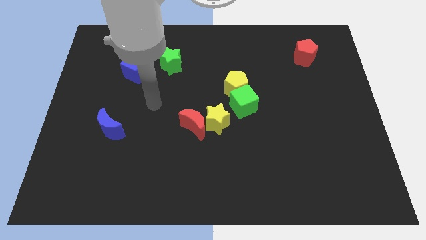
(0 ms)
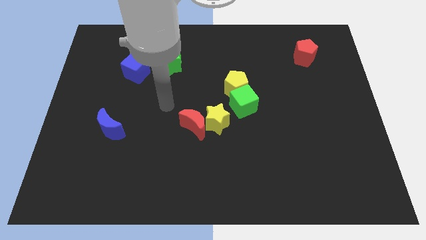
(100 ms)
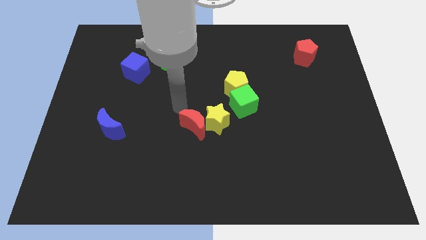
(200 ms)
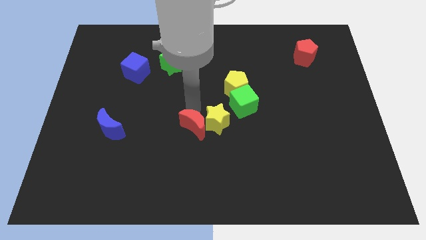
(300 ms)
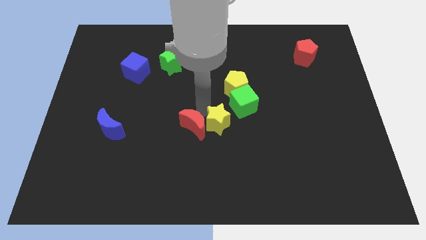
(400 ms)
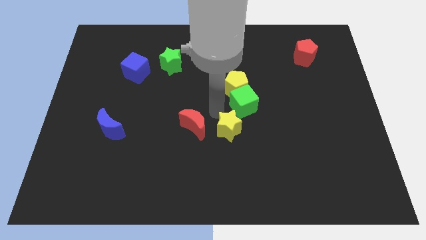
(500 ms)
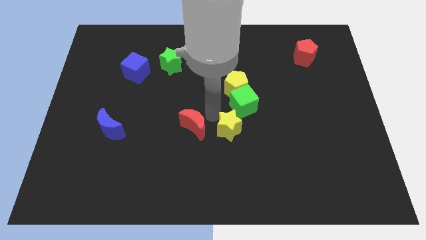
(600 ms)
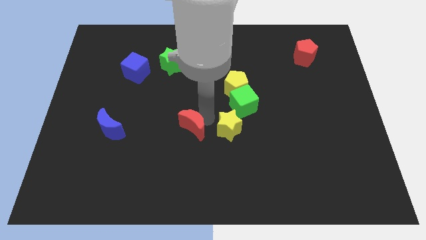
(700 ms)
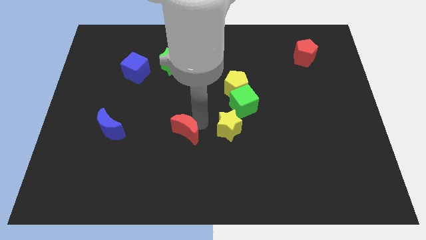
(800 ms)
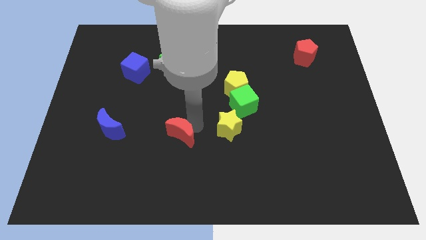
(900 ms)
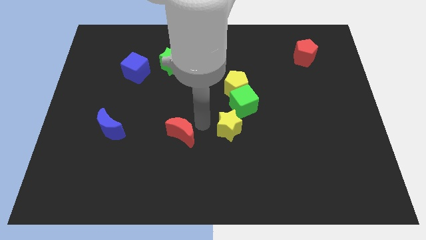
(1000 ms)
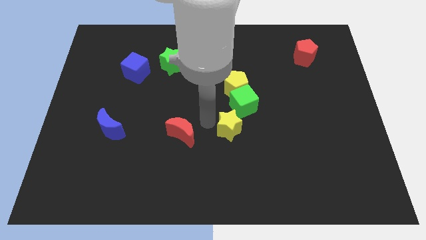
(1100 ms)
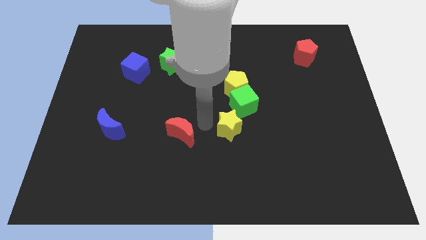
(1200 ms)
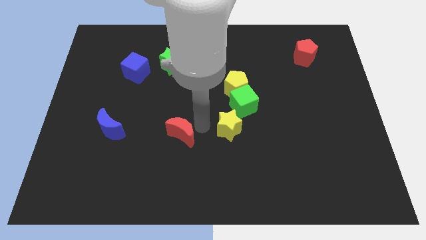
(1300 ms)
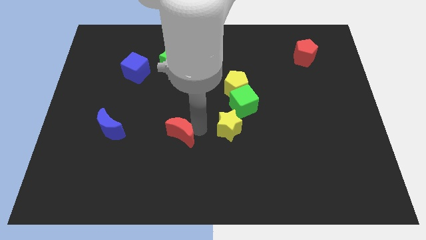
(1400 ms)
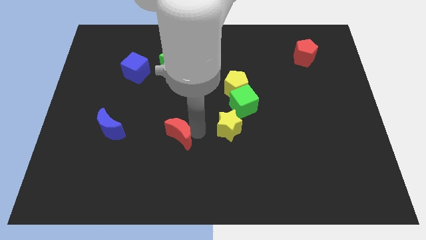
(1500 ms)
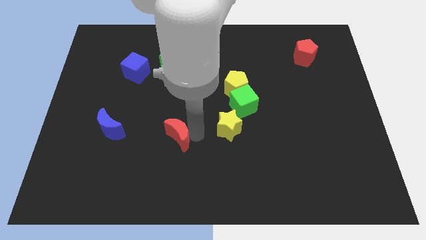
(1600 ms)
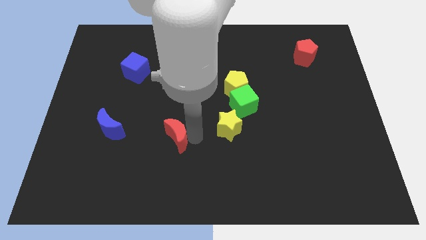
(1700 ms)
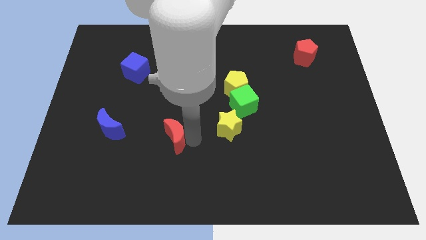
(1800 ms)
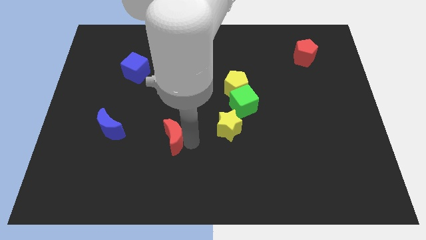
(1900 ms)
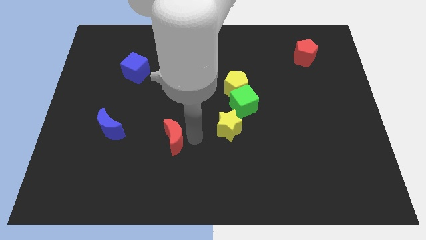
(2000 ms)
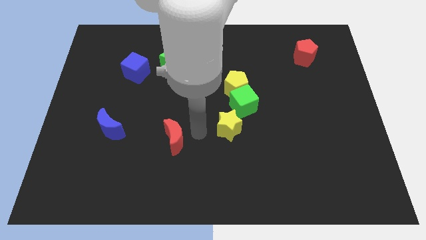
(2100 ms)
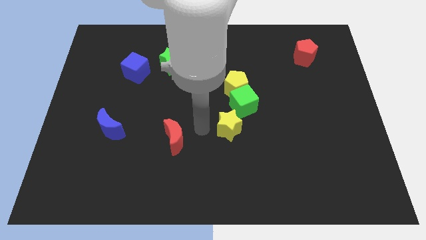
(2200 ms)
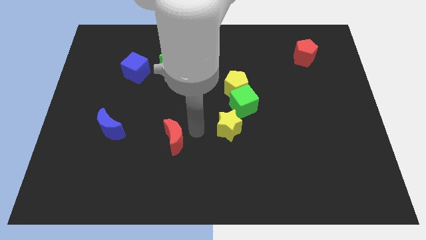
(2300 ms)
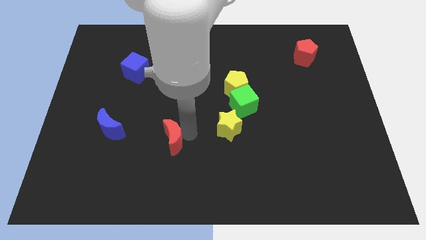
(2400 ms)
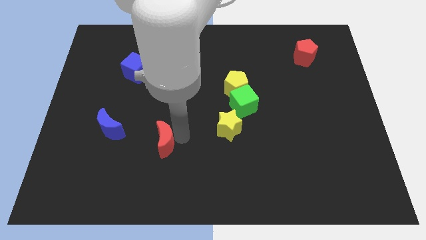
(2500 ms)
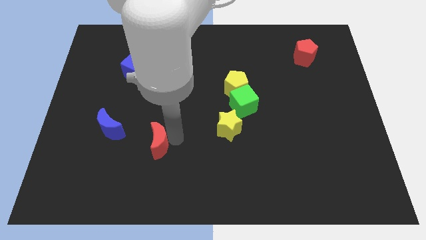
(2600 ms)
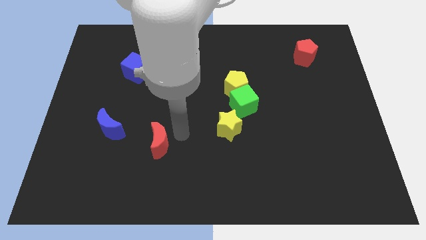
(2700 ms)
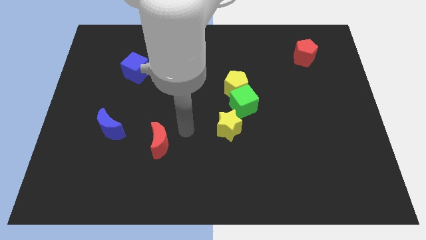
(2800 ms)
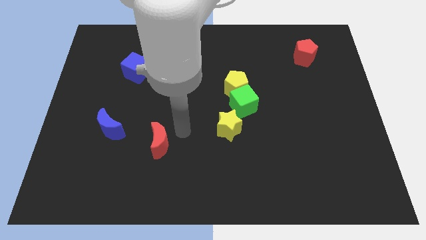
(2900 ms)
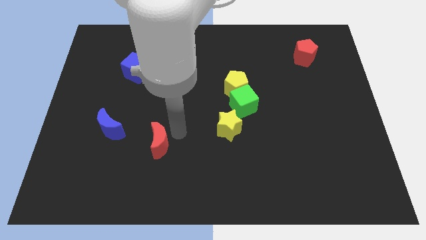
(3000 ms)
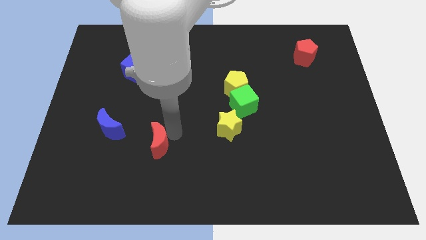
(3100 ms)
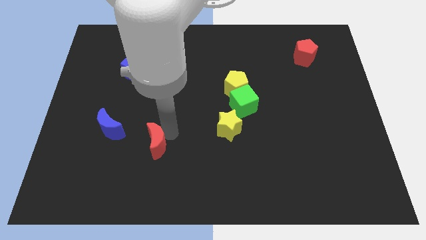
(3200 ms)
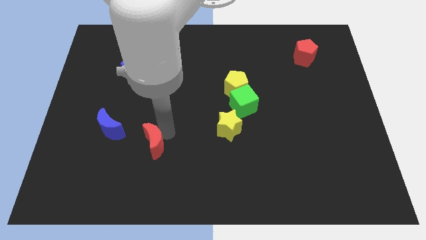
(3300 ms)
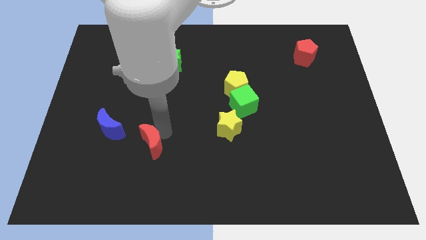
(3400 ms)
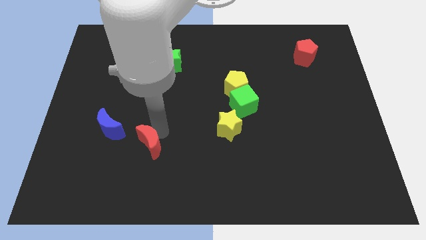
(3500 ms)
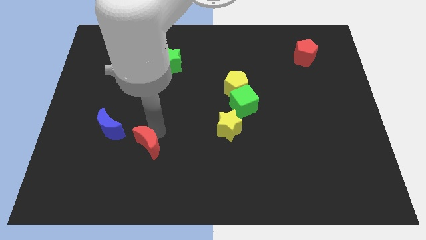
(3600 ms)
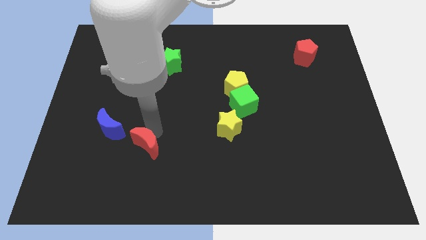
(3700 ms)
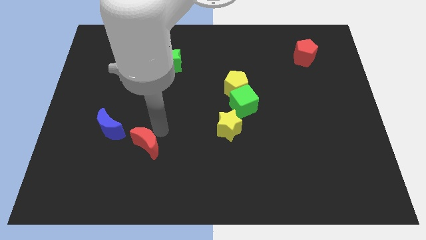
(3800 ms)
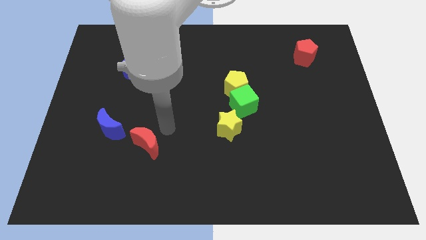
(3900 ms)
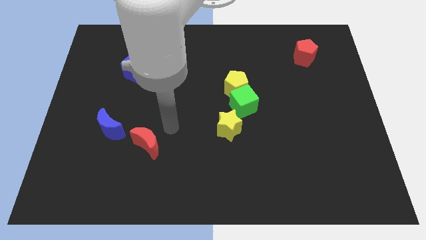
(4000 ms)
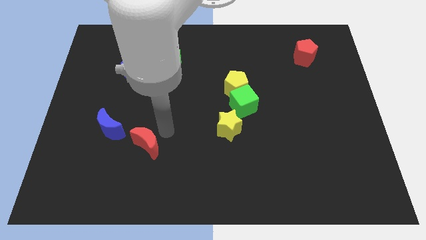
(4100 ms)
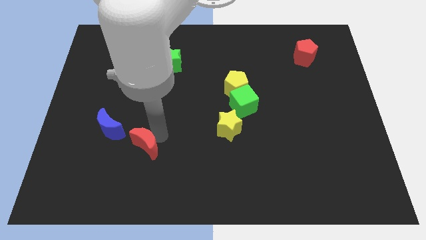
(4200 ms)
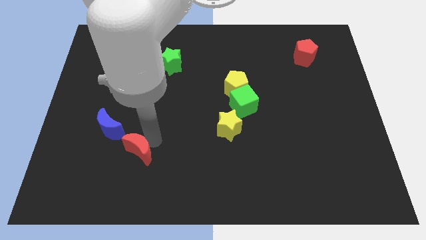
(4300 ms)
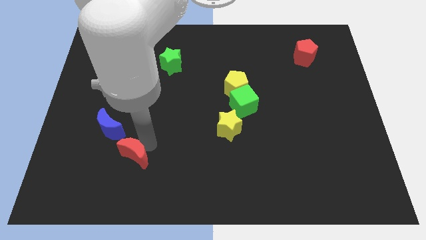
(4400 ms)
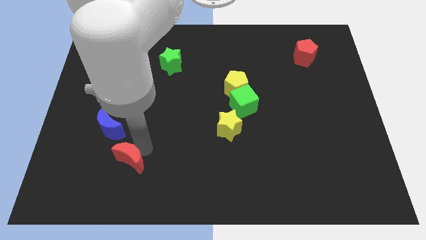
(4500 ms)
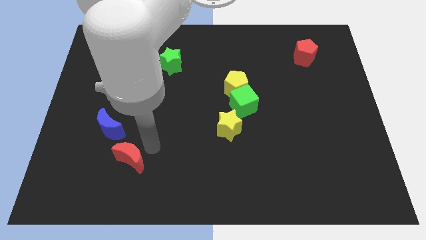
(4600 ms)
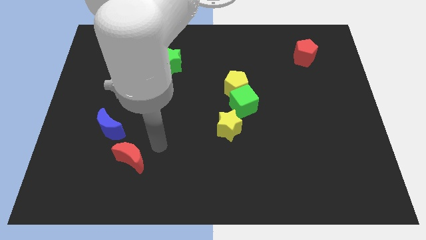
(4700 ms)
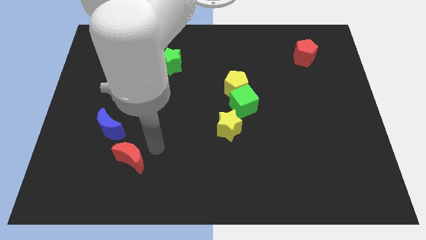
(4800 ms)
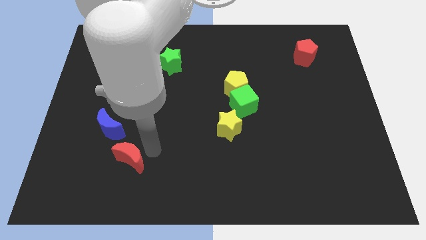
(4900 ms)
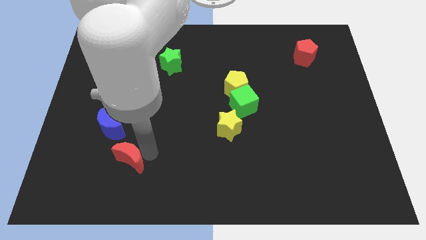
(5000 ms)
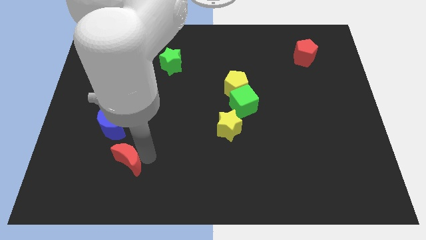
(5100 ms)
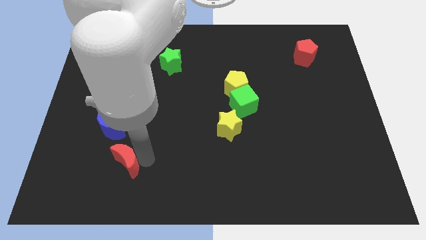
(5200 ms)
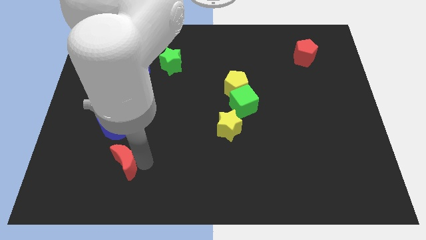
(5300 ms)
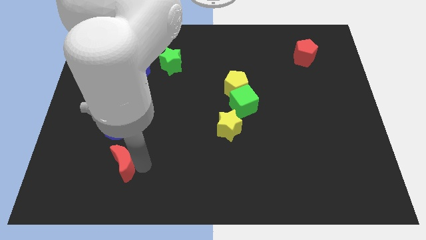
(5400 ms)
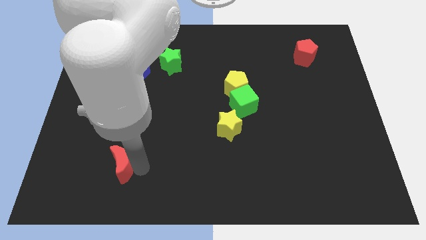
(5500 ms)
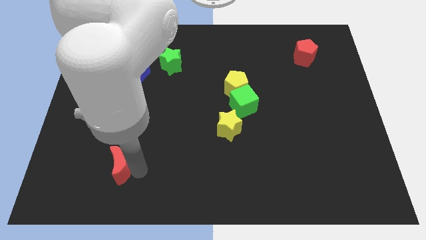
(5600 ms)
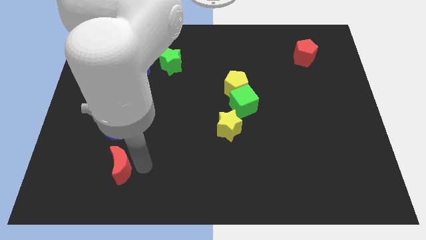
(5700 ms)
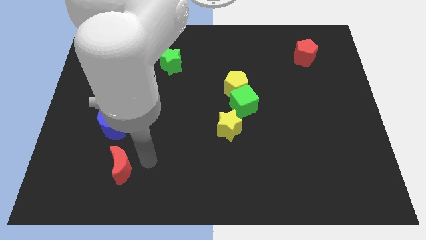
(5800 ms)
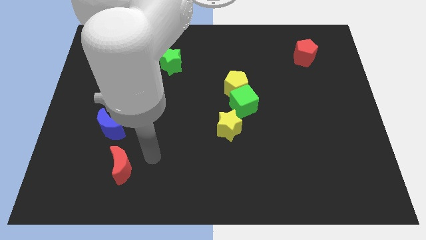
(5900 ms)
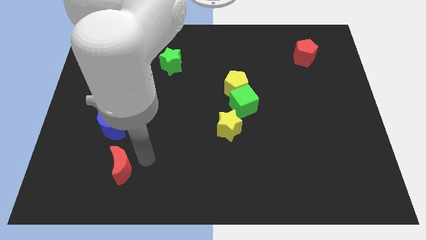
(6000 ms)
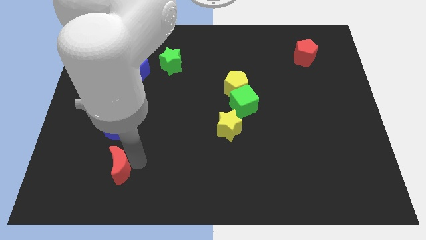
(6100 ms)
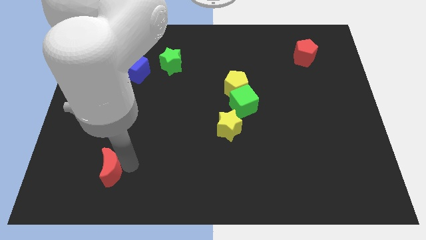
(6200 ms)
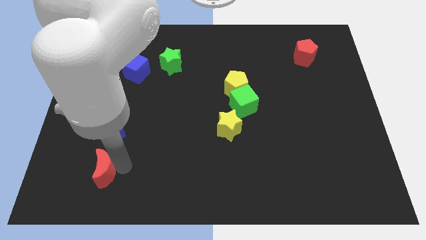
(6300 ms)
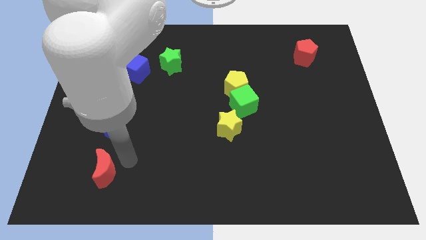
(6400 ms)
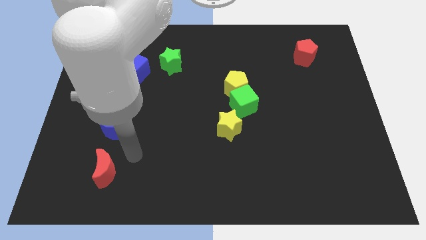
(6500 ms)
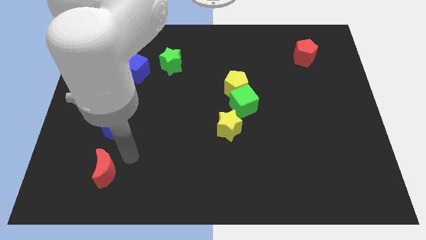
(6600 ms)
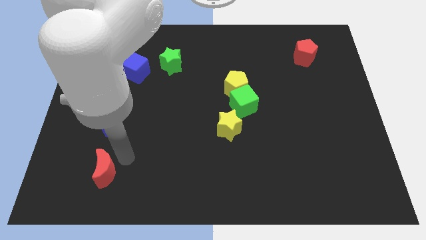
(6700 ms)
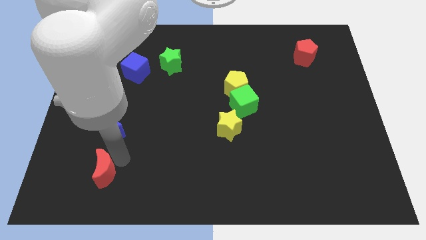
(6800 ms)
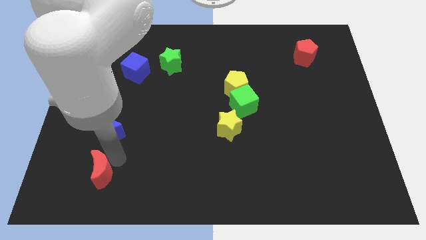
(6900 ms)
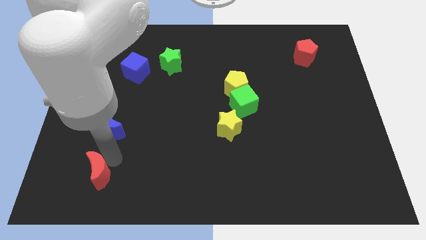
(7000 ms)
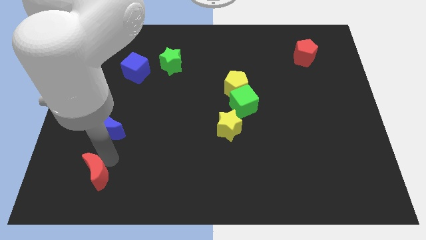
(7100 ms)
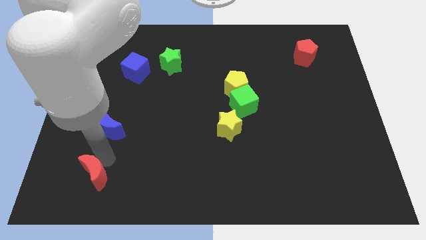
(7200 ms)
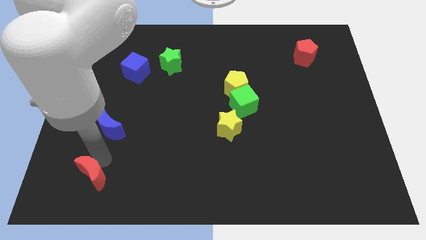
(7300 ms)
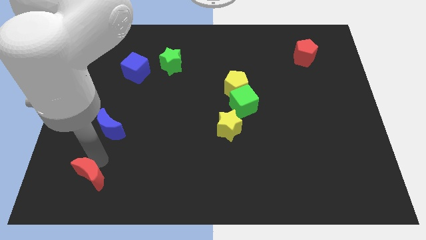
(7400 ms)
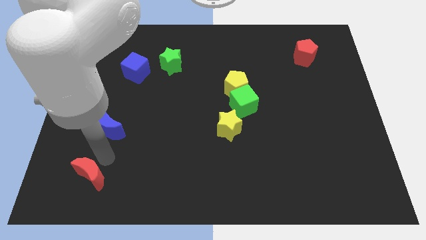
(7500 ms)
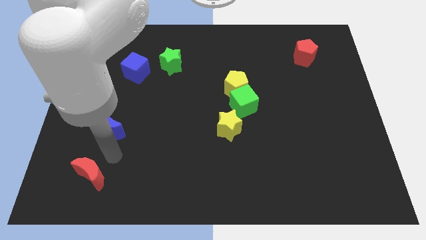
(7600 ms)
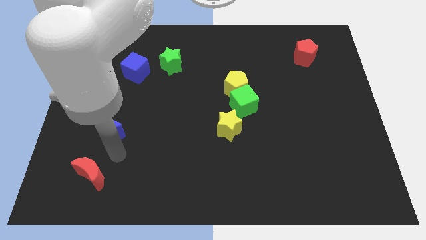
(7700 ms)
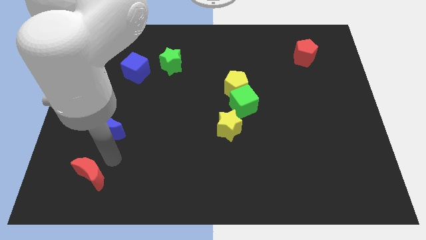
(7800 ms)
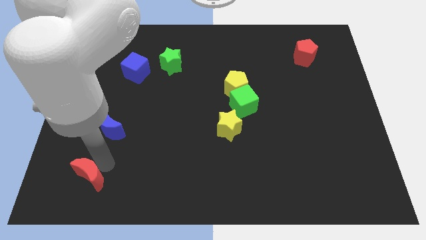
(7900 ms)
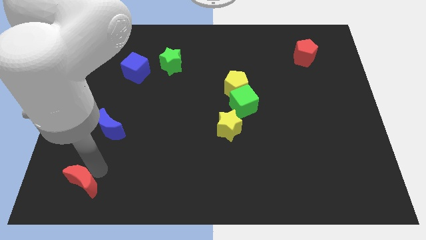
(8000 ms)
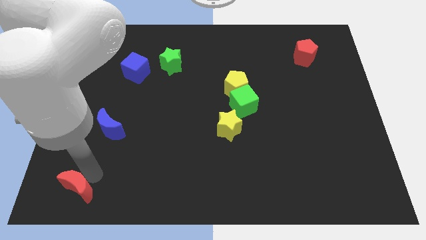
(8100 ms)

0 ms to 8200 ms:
move the red moon to the bottom left
